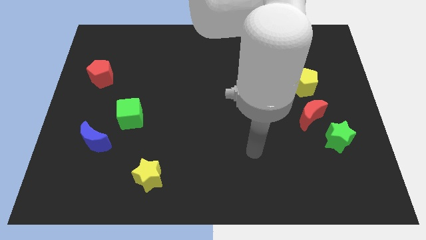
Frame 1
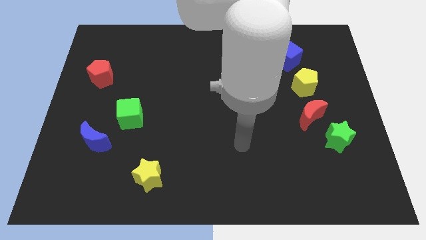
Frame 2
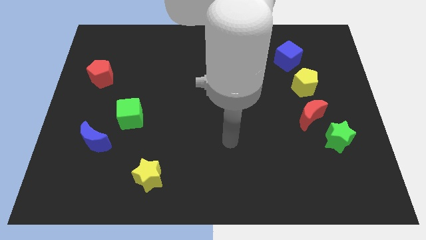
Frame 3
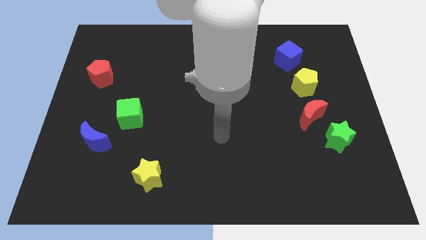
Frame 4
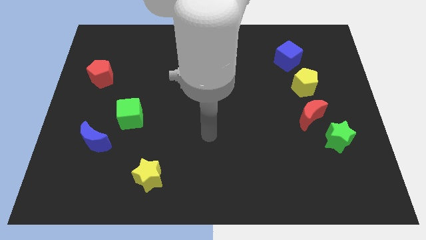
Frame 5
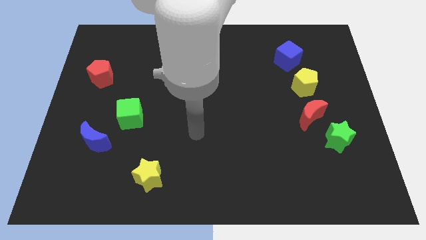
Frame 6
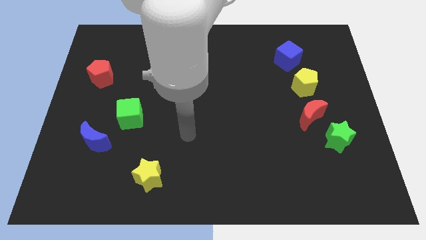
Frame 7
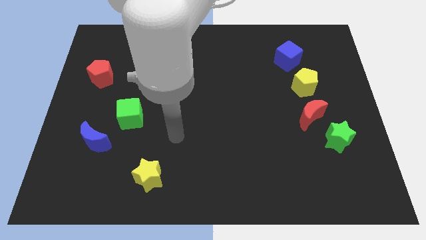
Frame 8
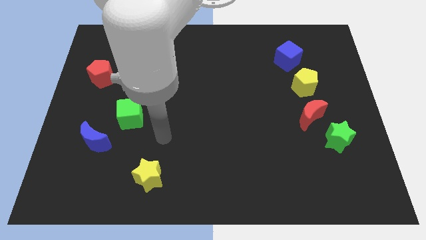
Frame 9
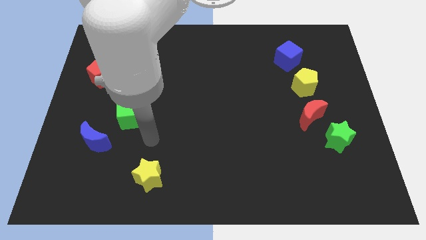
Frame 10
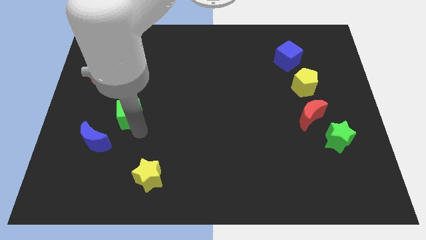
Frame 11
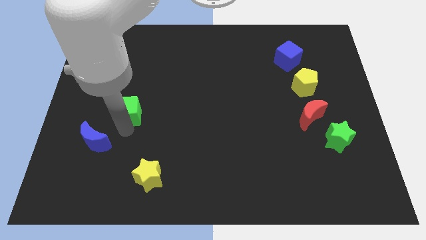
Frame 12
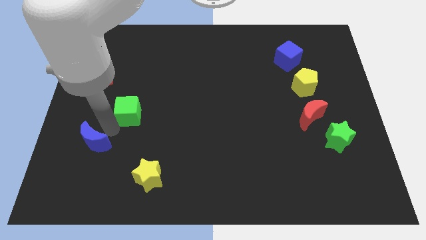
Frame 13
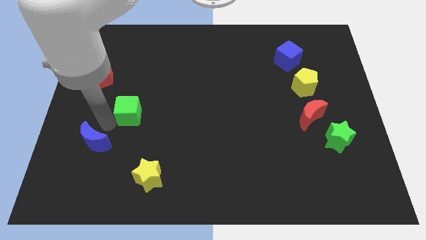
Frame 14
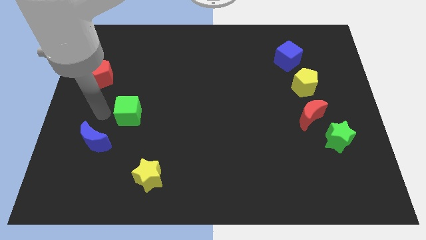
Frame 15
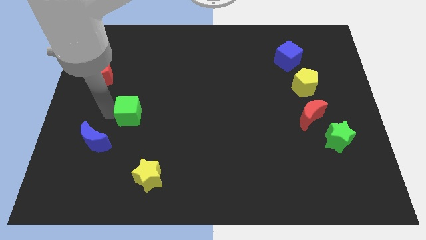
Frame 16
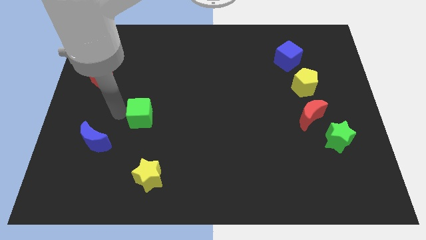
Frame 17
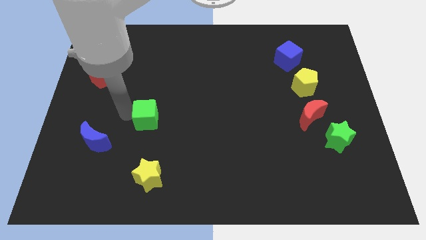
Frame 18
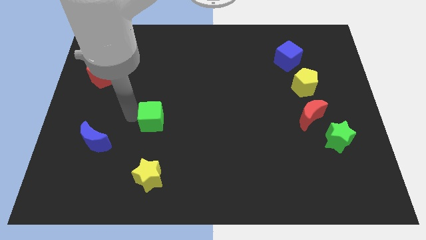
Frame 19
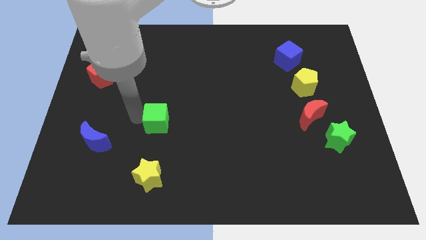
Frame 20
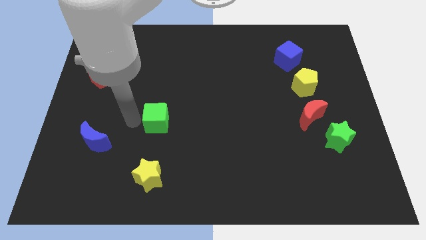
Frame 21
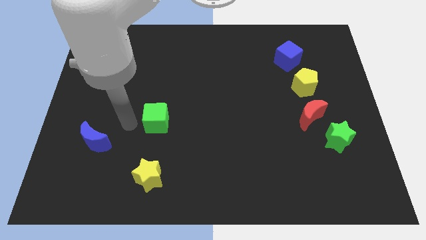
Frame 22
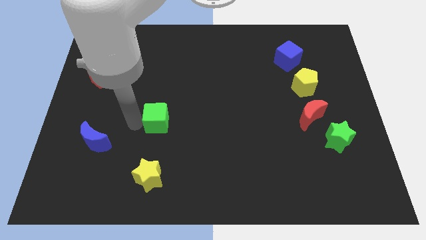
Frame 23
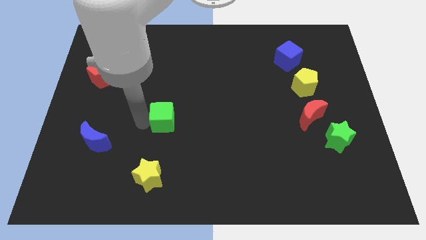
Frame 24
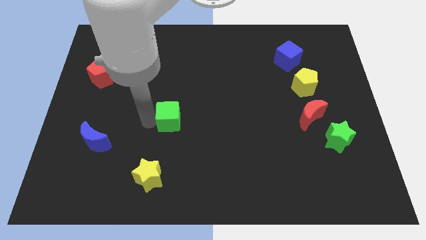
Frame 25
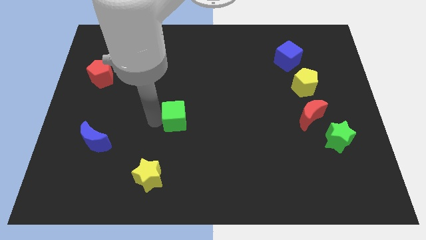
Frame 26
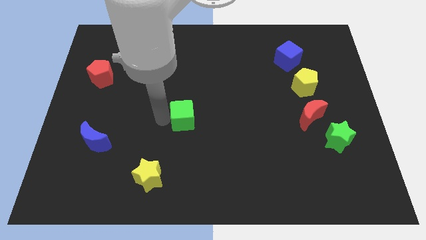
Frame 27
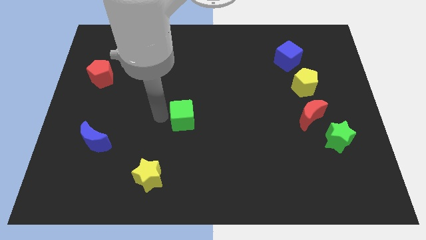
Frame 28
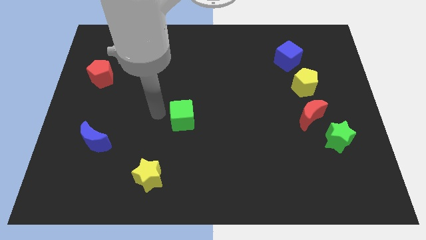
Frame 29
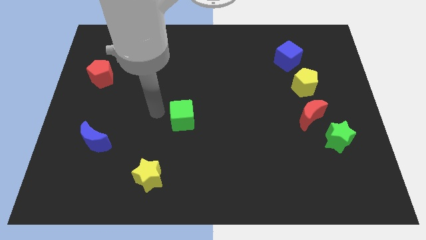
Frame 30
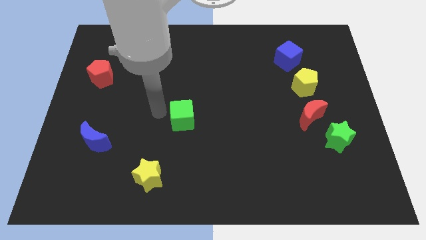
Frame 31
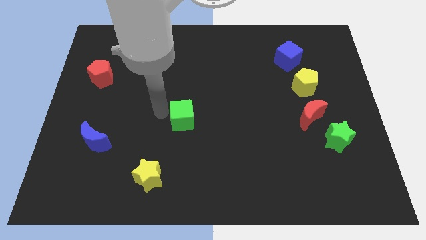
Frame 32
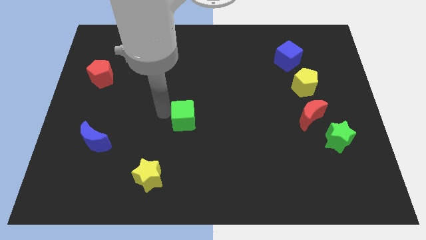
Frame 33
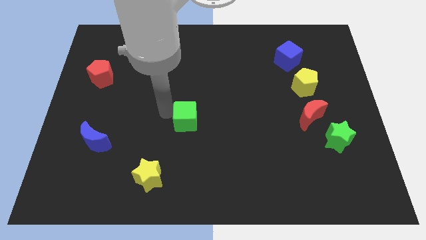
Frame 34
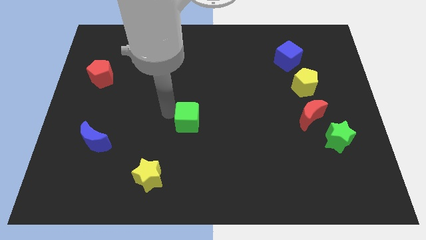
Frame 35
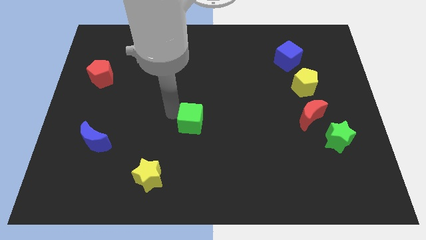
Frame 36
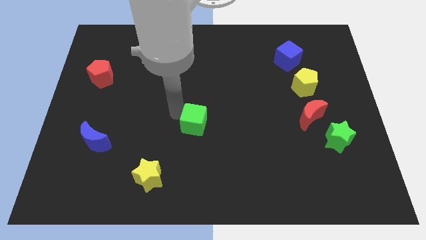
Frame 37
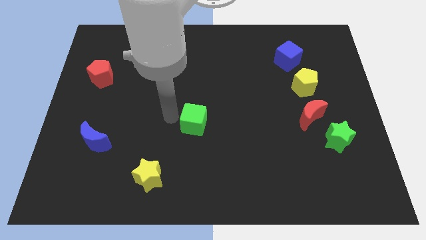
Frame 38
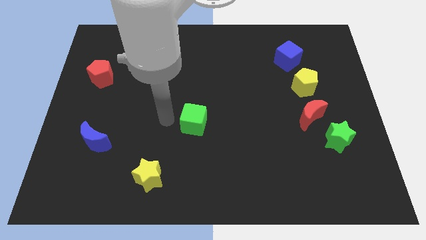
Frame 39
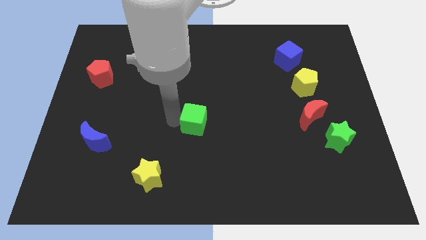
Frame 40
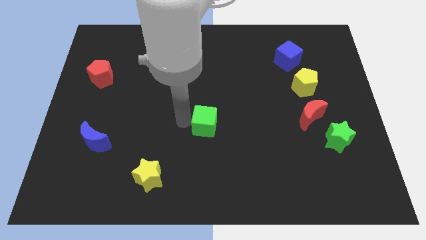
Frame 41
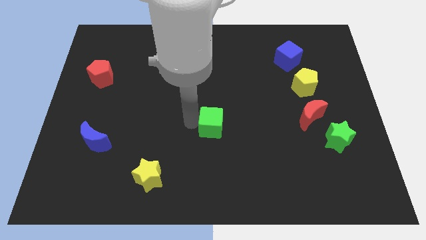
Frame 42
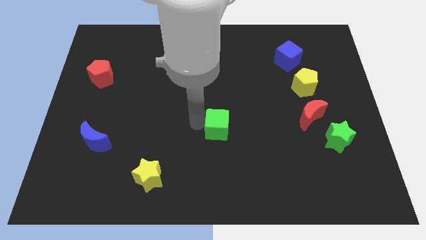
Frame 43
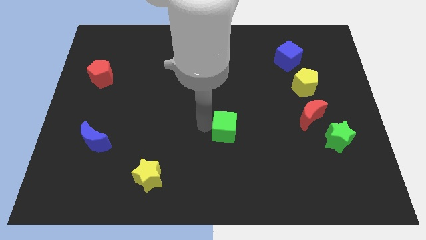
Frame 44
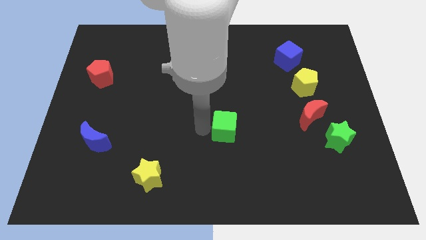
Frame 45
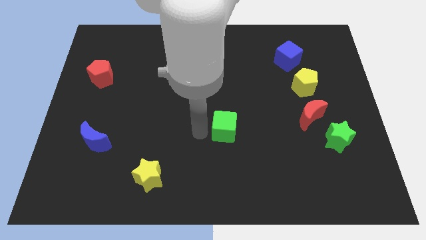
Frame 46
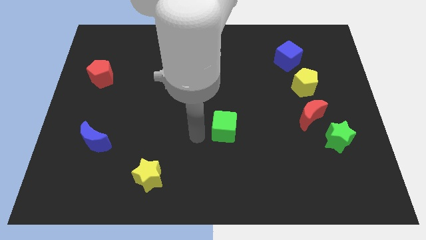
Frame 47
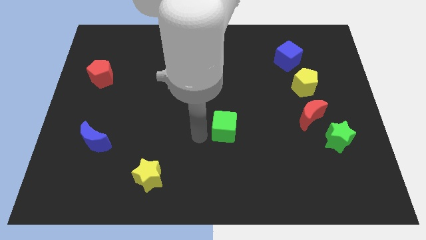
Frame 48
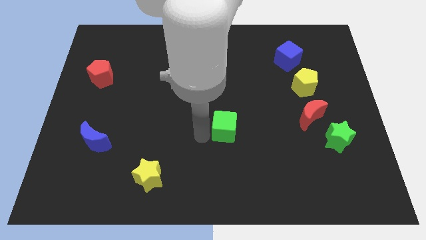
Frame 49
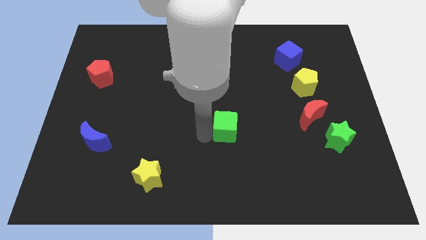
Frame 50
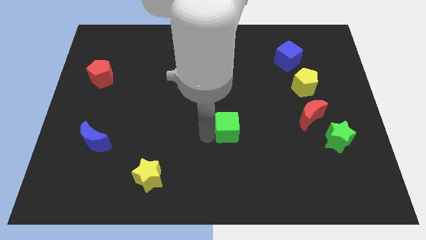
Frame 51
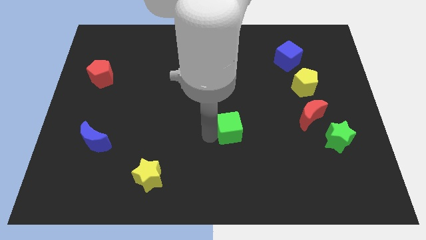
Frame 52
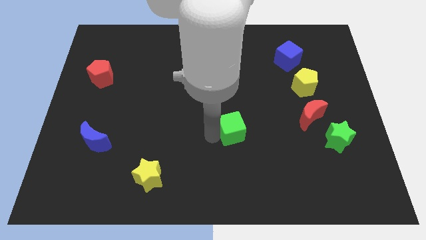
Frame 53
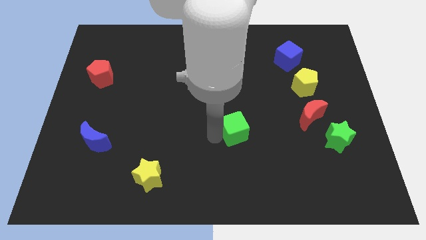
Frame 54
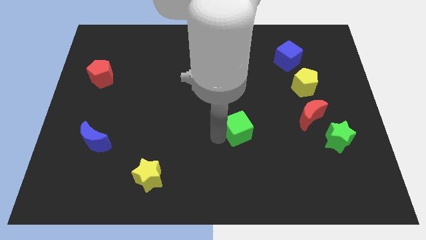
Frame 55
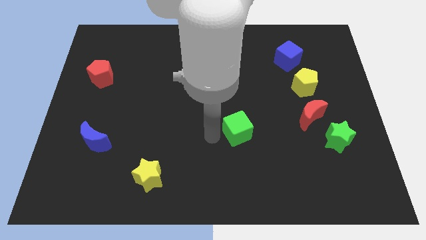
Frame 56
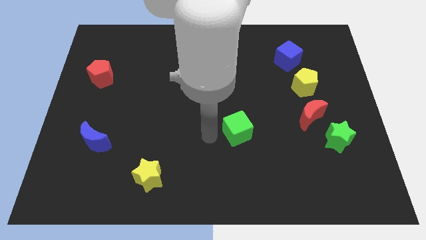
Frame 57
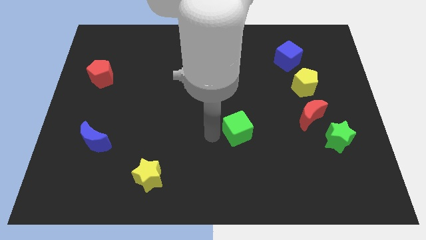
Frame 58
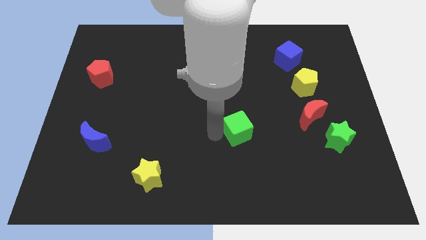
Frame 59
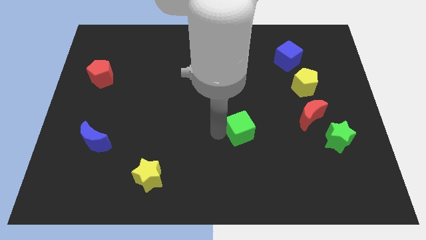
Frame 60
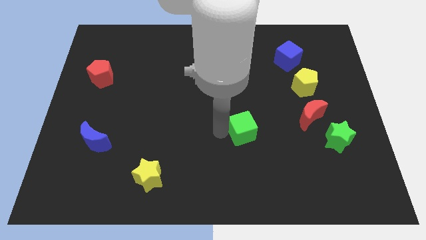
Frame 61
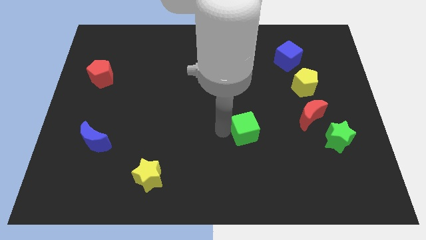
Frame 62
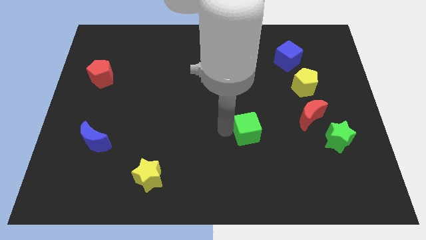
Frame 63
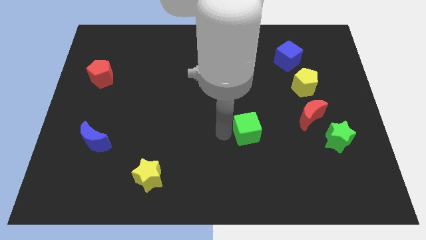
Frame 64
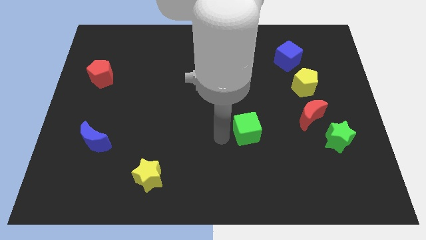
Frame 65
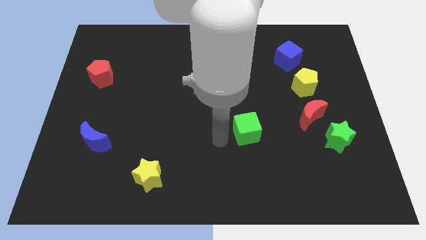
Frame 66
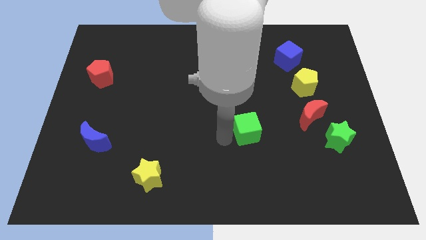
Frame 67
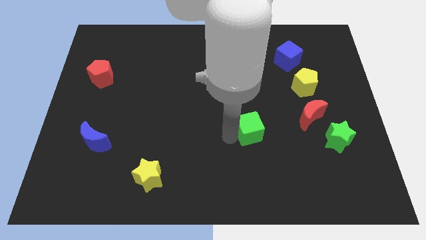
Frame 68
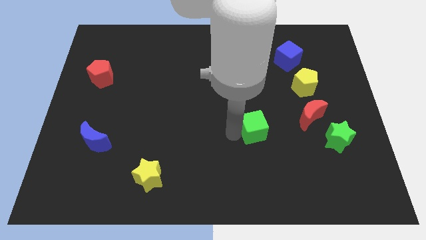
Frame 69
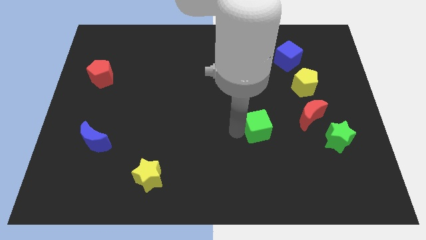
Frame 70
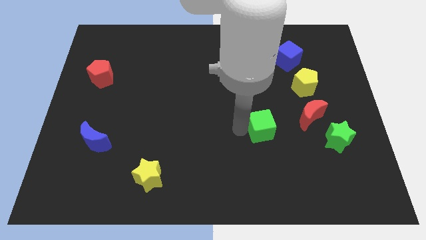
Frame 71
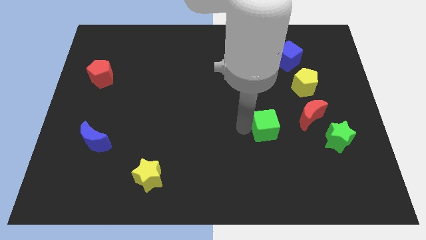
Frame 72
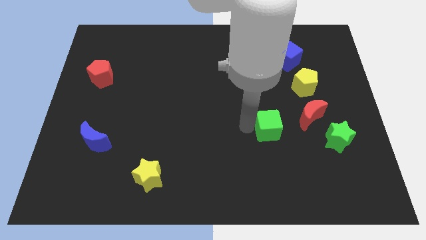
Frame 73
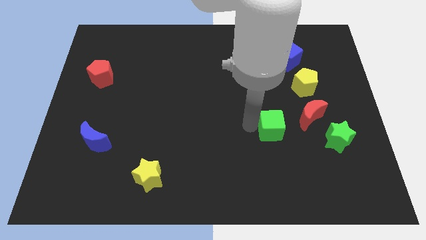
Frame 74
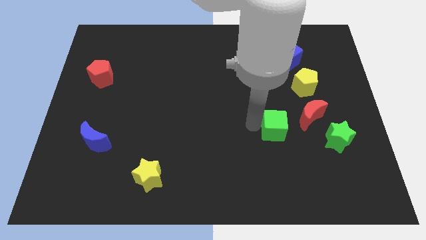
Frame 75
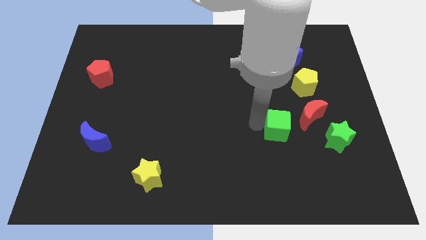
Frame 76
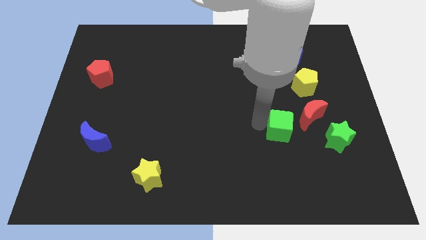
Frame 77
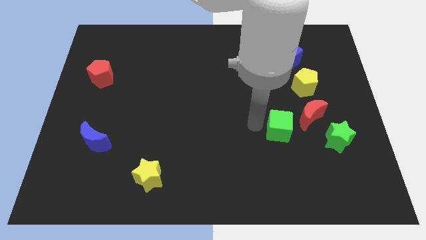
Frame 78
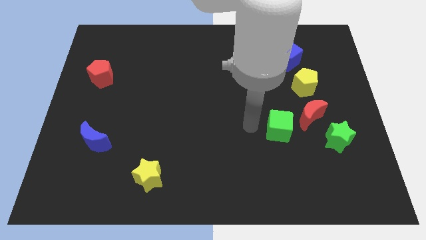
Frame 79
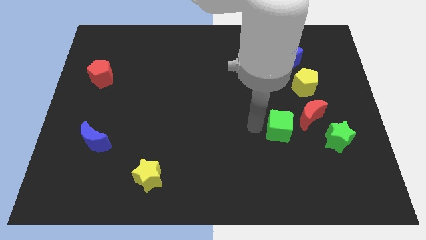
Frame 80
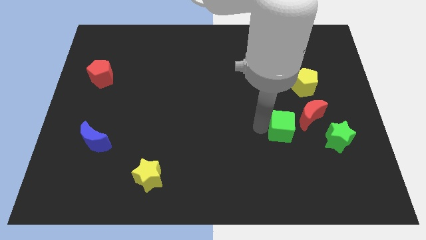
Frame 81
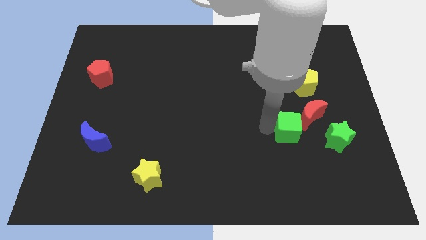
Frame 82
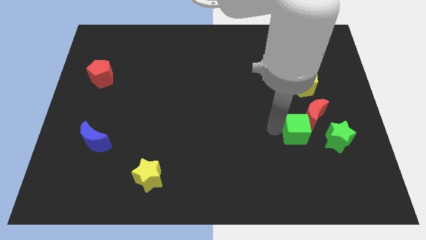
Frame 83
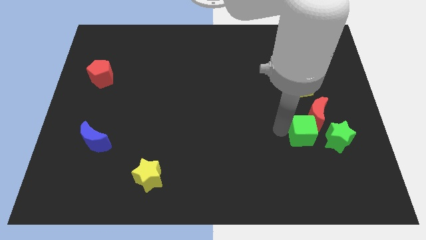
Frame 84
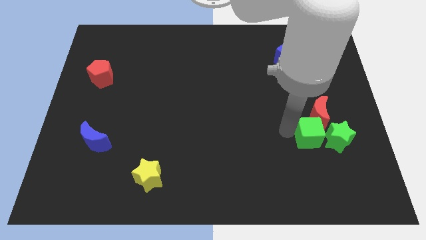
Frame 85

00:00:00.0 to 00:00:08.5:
push the green cube close to the green star
